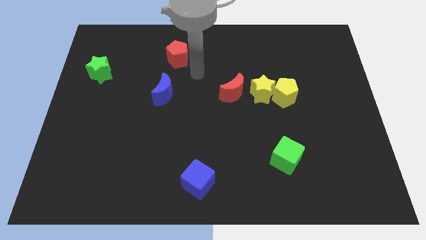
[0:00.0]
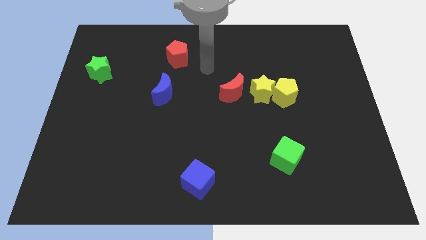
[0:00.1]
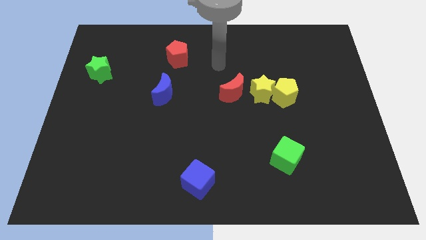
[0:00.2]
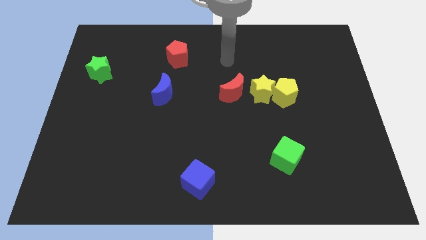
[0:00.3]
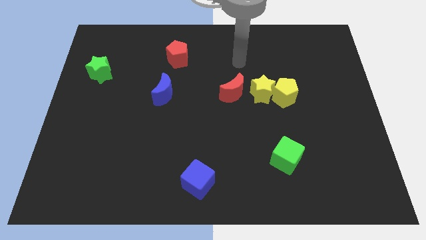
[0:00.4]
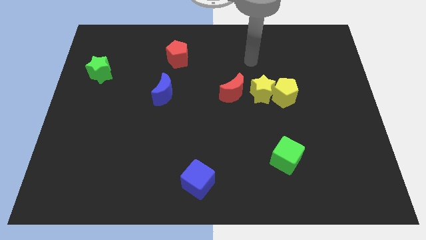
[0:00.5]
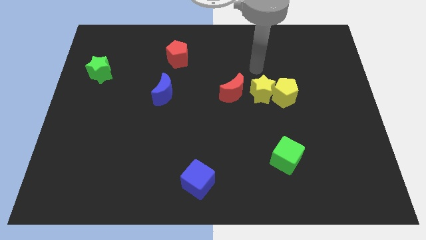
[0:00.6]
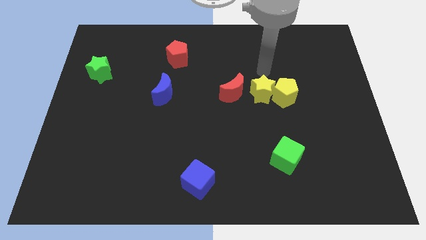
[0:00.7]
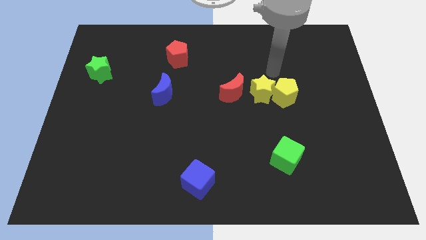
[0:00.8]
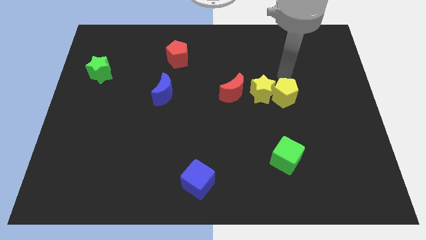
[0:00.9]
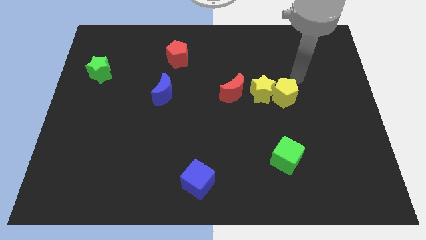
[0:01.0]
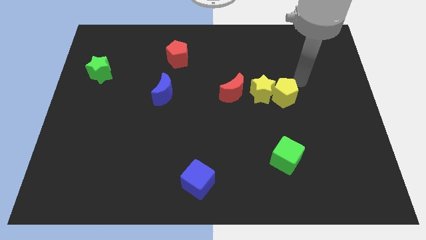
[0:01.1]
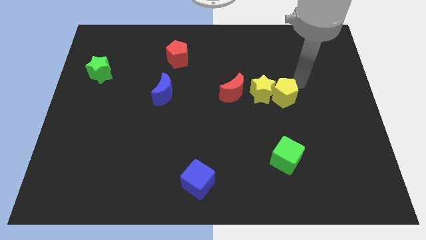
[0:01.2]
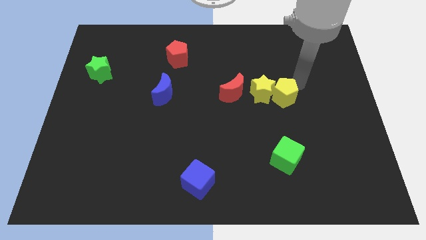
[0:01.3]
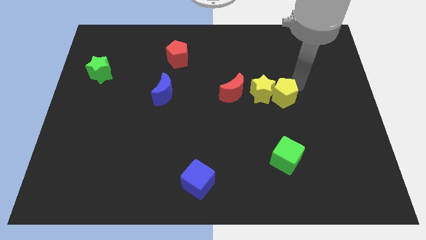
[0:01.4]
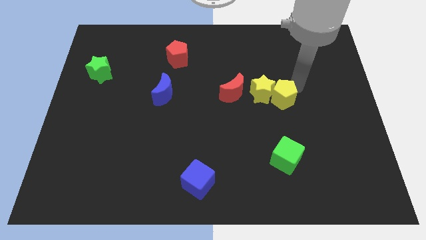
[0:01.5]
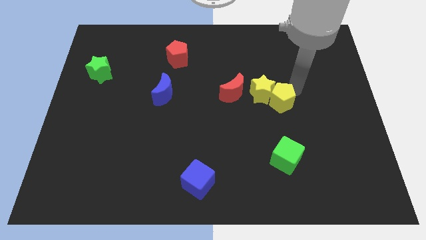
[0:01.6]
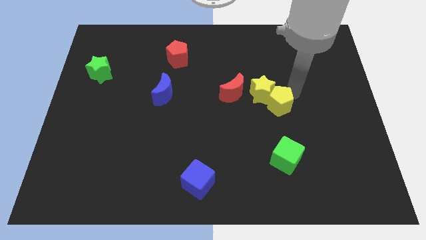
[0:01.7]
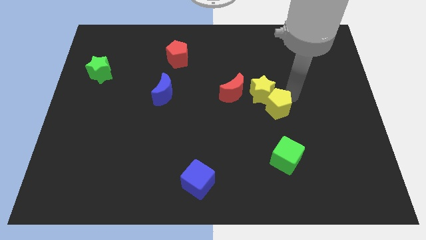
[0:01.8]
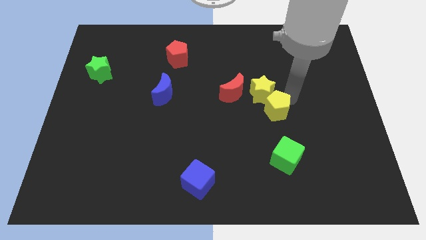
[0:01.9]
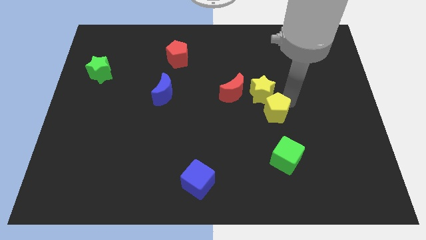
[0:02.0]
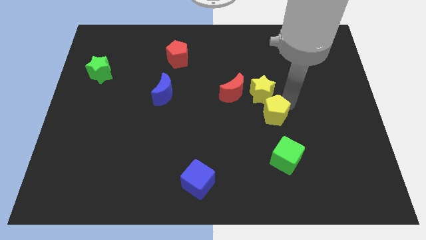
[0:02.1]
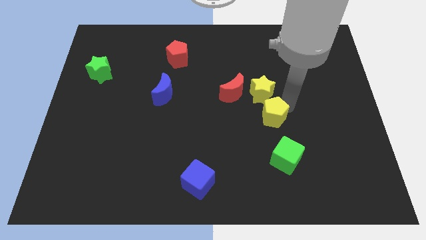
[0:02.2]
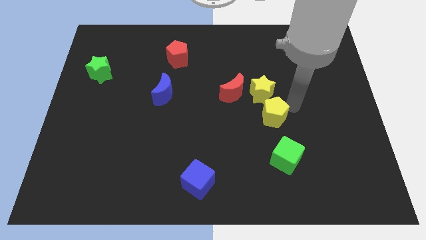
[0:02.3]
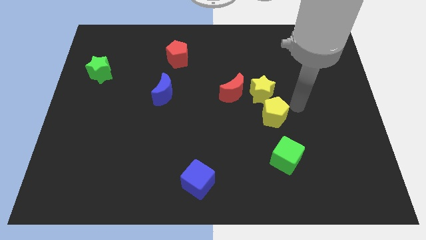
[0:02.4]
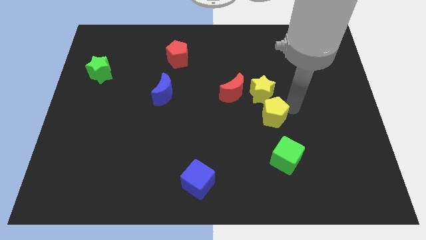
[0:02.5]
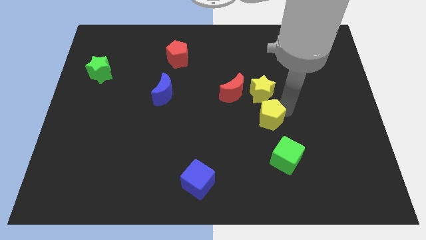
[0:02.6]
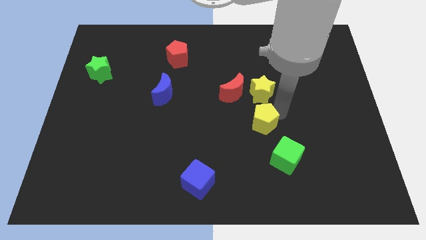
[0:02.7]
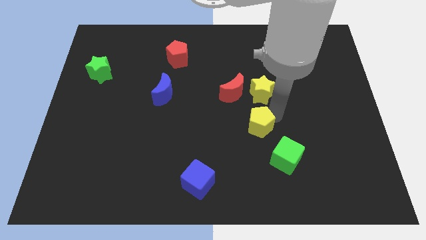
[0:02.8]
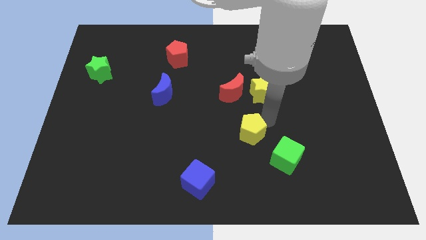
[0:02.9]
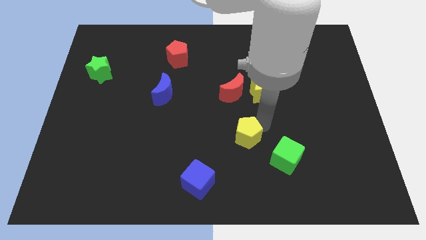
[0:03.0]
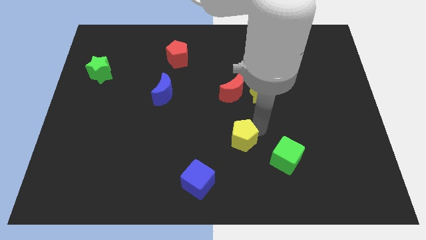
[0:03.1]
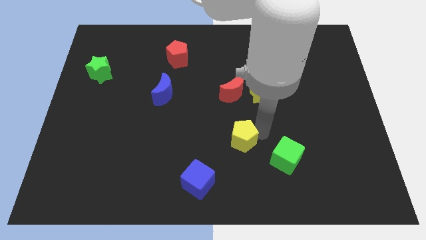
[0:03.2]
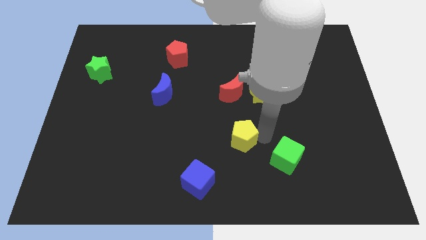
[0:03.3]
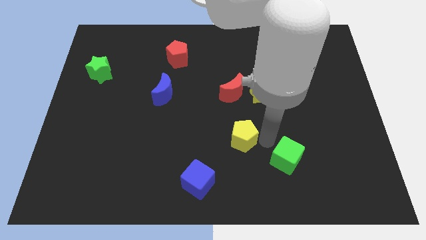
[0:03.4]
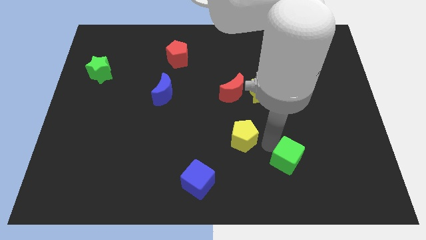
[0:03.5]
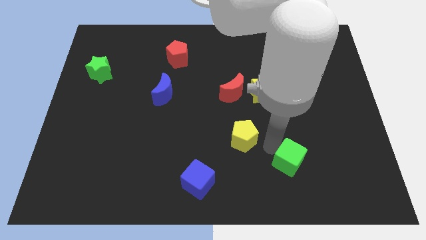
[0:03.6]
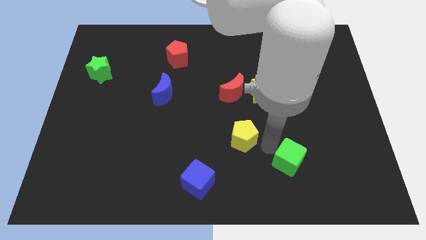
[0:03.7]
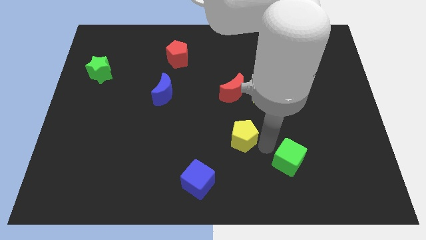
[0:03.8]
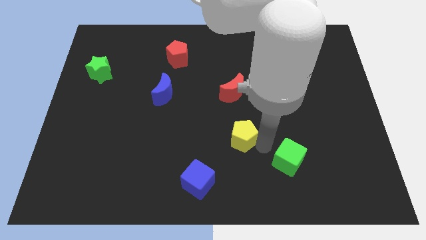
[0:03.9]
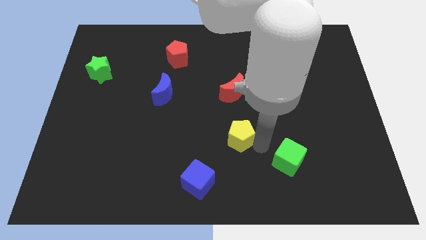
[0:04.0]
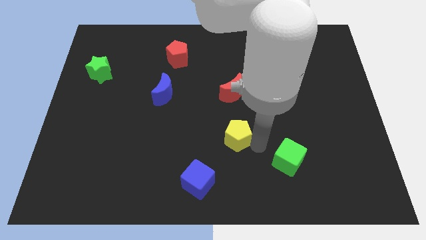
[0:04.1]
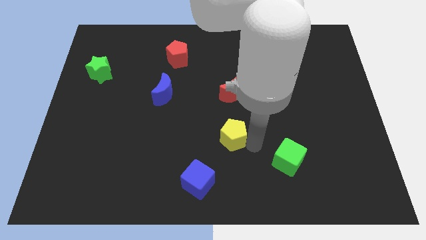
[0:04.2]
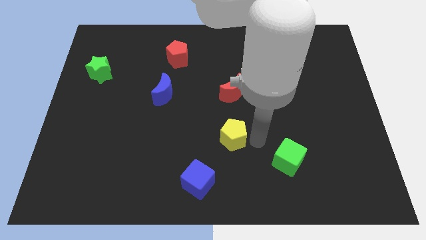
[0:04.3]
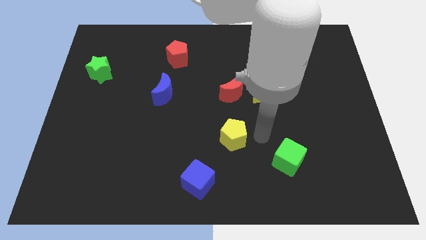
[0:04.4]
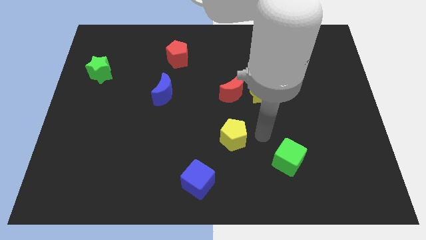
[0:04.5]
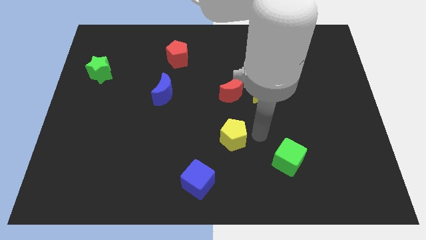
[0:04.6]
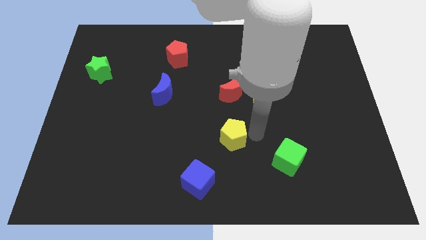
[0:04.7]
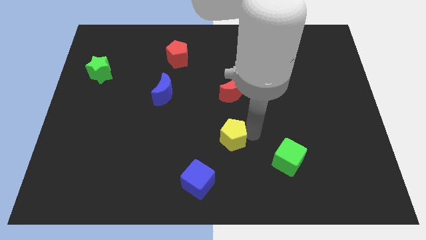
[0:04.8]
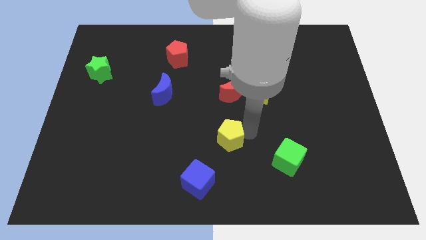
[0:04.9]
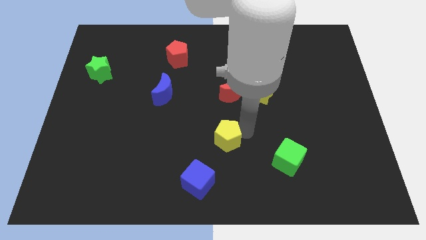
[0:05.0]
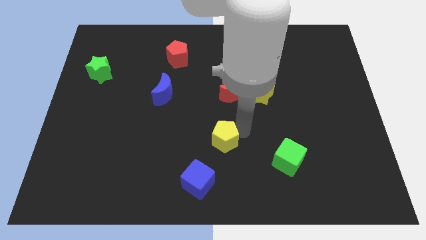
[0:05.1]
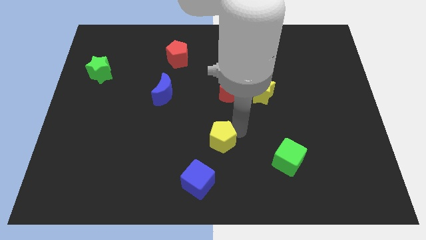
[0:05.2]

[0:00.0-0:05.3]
slide the yellow pentagon to the top of the blue cube

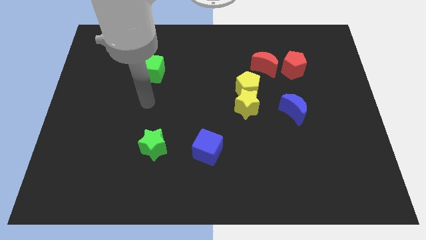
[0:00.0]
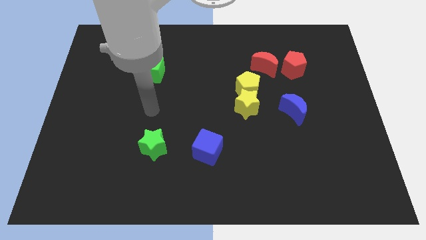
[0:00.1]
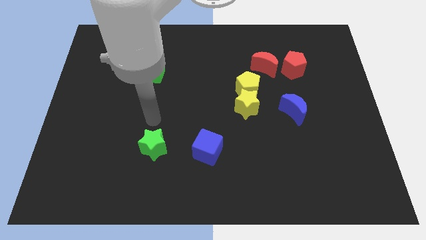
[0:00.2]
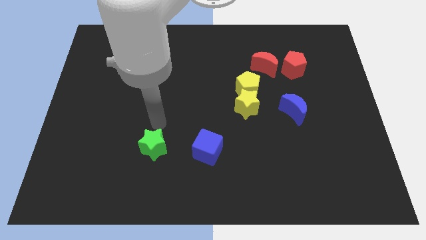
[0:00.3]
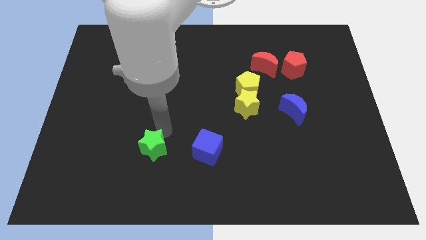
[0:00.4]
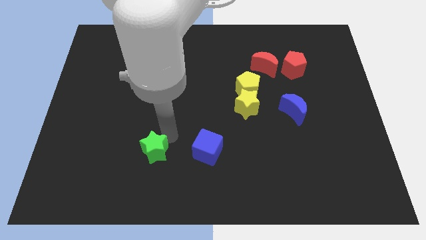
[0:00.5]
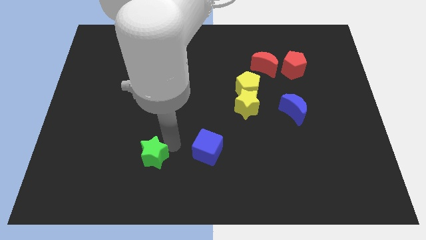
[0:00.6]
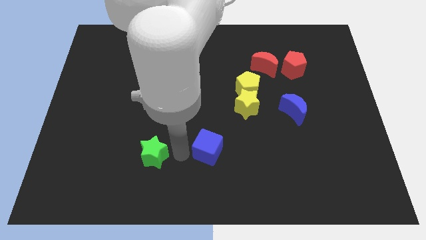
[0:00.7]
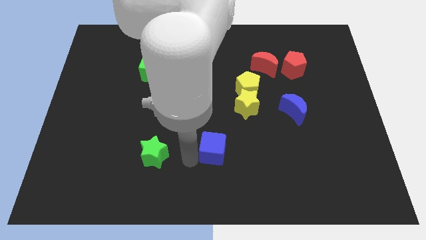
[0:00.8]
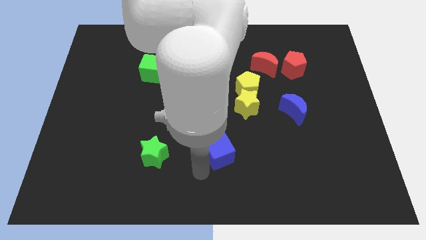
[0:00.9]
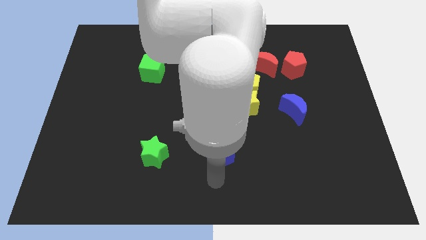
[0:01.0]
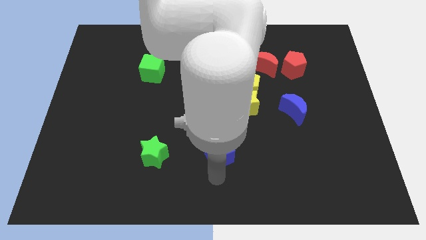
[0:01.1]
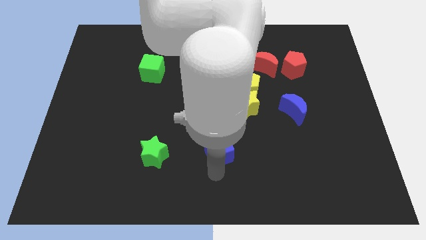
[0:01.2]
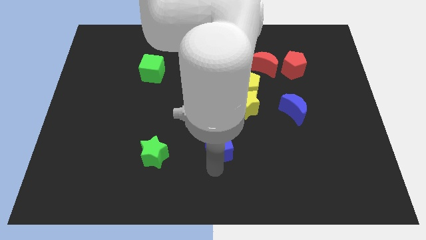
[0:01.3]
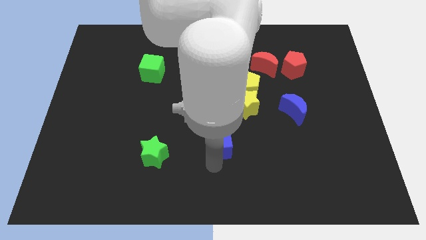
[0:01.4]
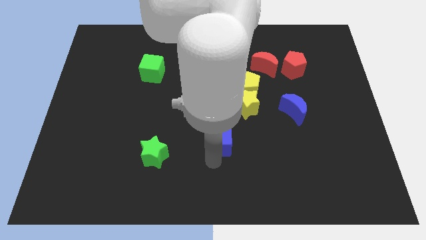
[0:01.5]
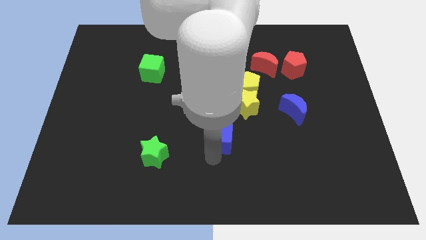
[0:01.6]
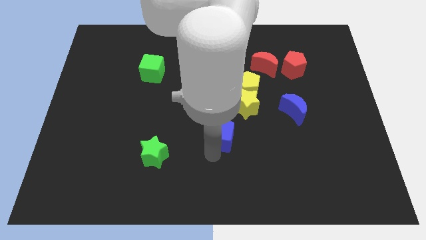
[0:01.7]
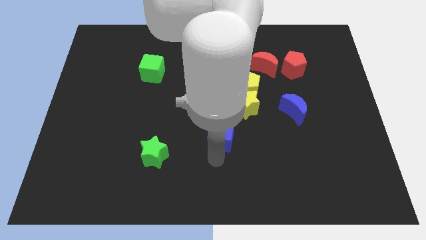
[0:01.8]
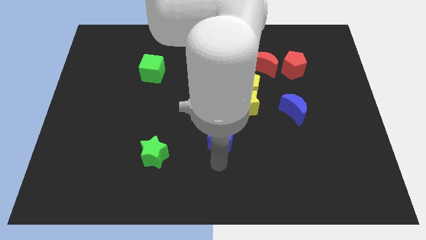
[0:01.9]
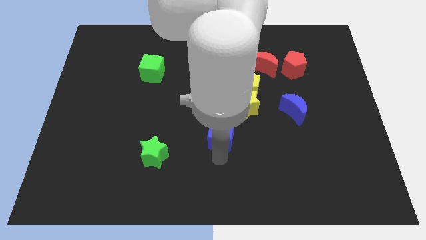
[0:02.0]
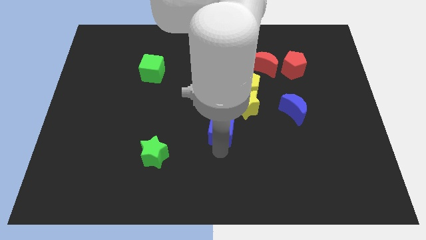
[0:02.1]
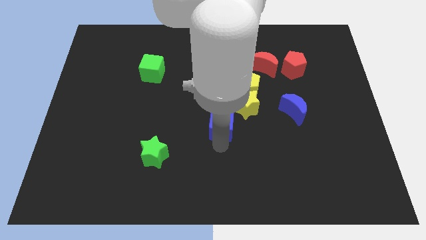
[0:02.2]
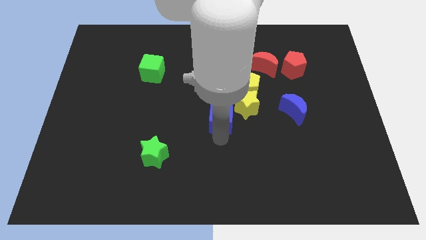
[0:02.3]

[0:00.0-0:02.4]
slide the blue cube diagonally down and to the left of the yellow pentagon
